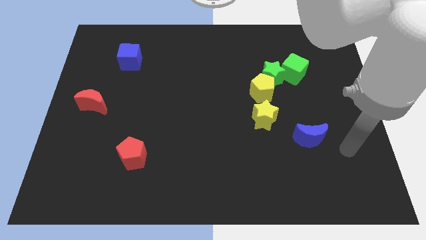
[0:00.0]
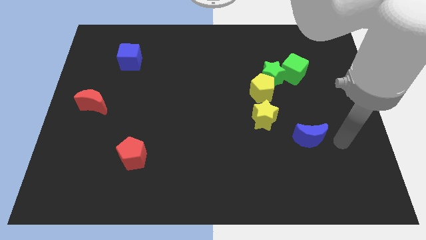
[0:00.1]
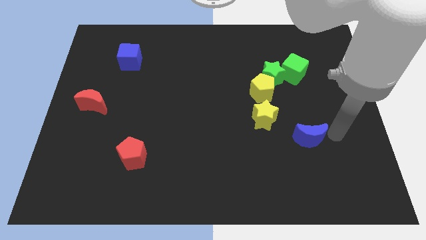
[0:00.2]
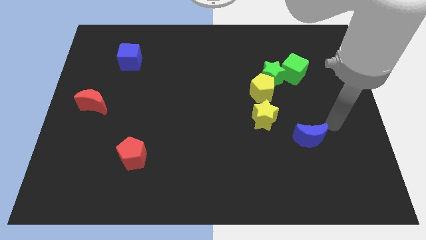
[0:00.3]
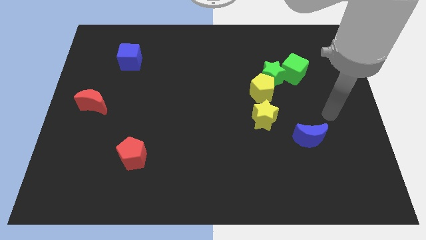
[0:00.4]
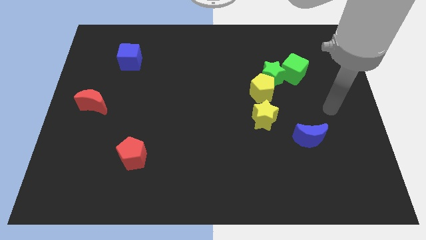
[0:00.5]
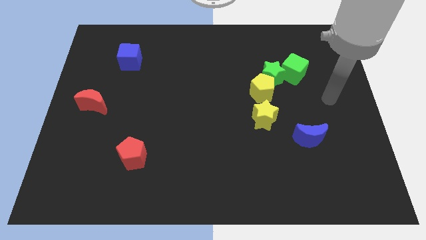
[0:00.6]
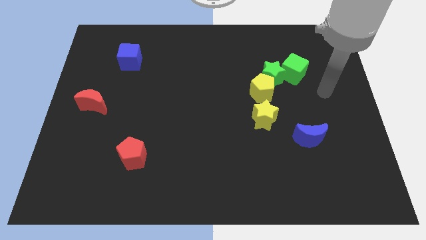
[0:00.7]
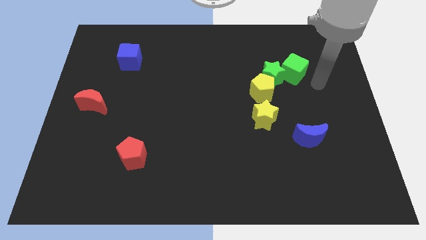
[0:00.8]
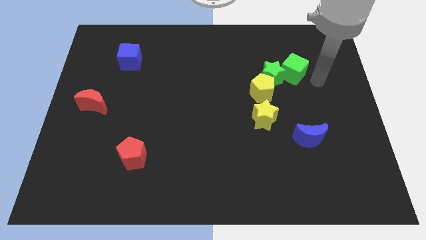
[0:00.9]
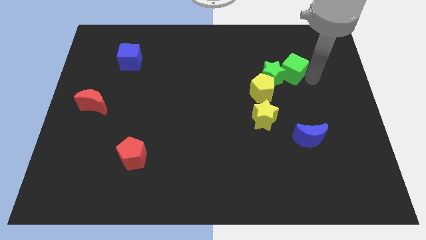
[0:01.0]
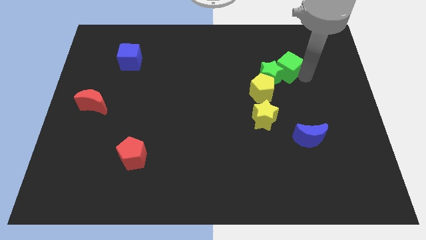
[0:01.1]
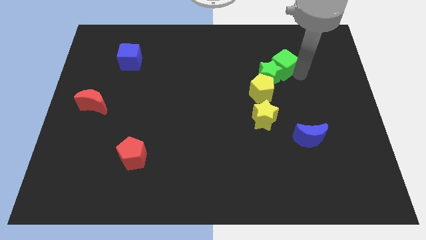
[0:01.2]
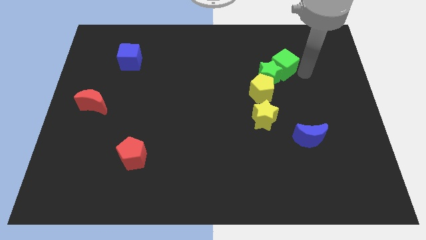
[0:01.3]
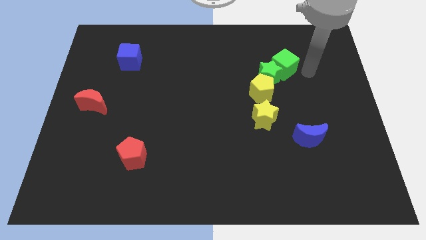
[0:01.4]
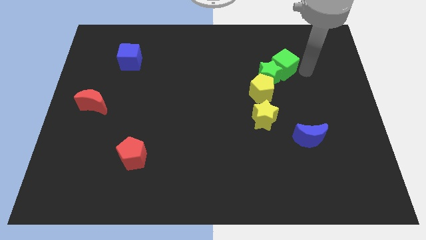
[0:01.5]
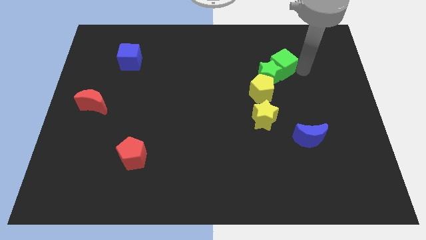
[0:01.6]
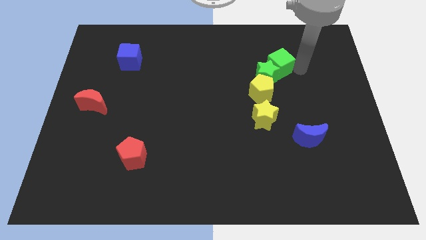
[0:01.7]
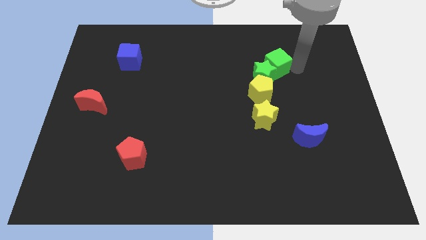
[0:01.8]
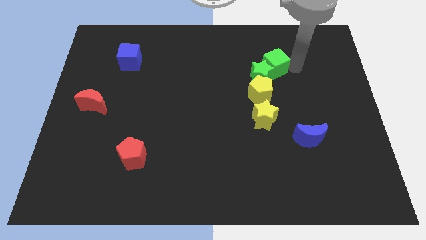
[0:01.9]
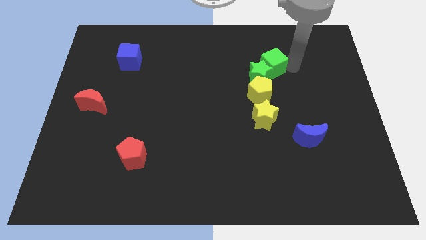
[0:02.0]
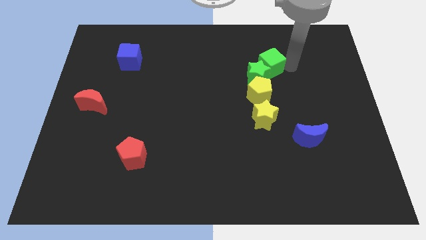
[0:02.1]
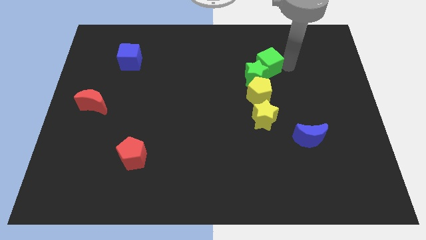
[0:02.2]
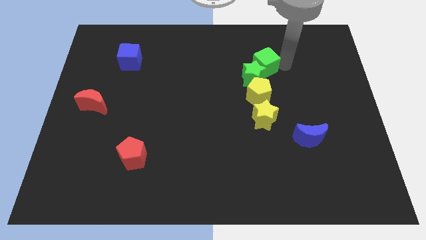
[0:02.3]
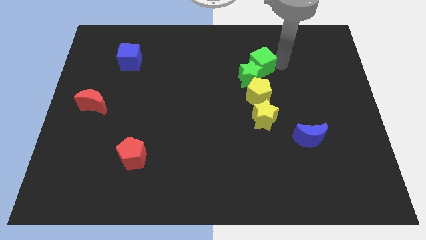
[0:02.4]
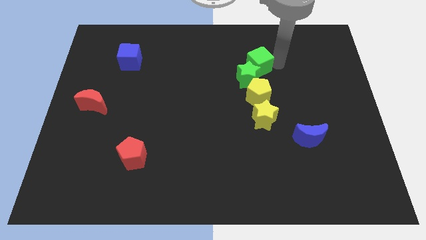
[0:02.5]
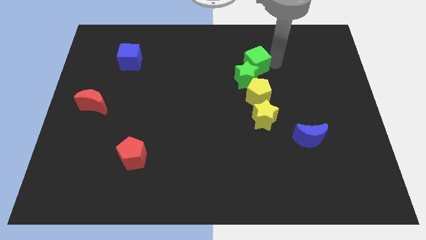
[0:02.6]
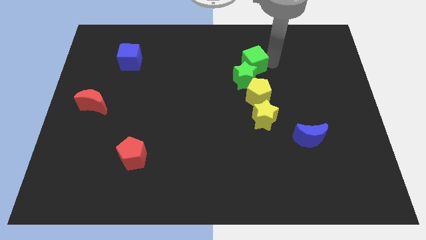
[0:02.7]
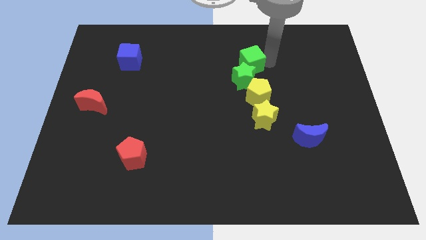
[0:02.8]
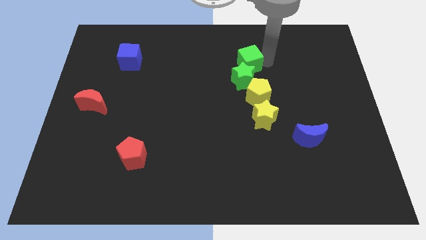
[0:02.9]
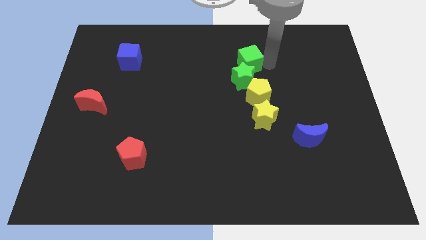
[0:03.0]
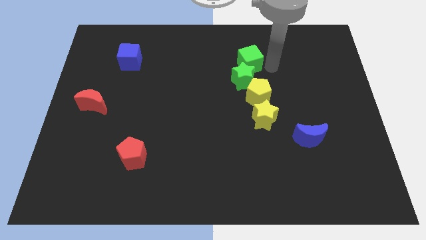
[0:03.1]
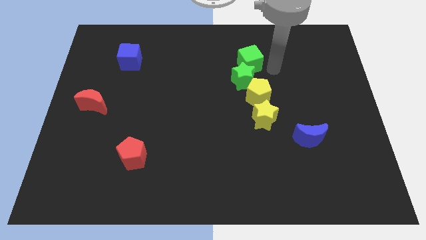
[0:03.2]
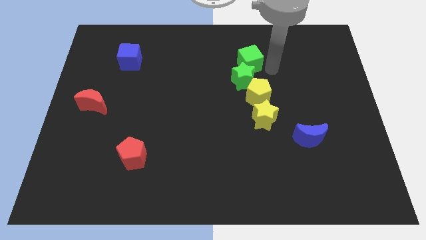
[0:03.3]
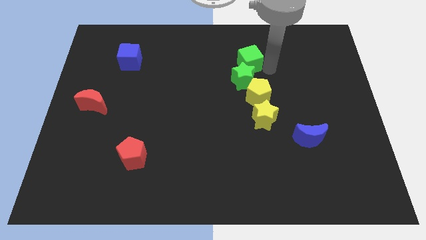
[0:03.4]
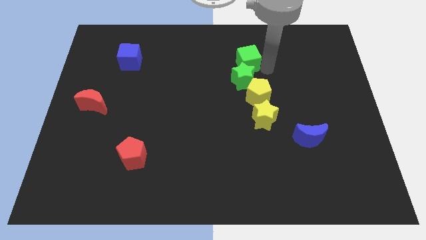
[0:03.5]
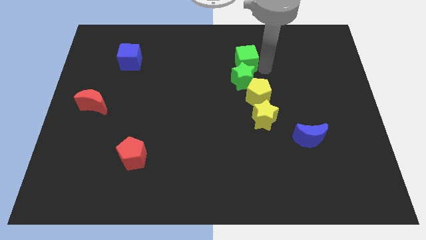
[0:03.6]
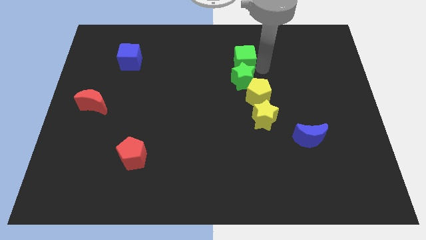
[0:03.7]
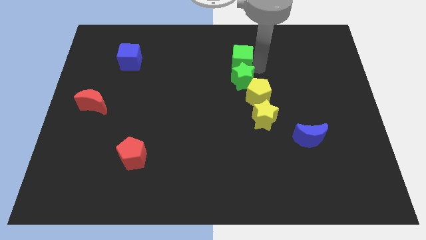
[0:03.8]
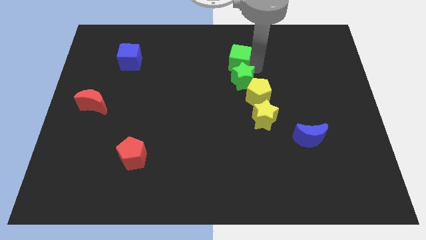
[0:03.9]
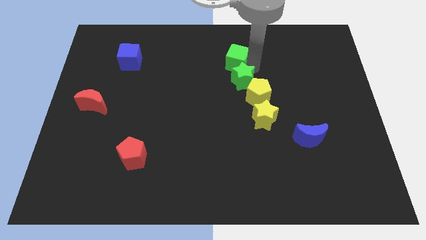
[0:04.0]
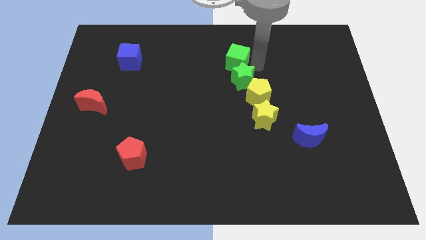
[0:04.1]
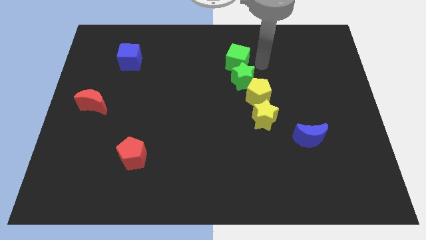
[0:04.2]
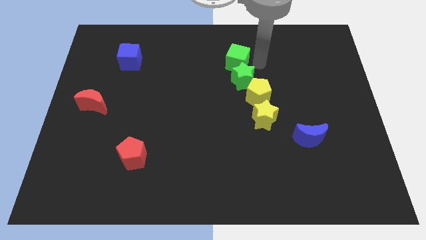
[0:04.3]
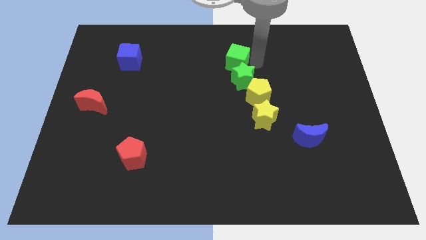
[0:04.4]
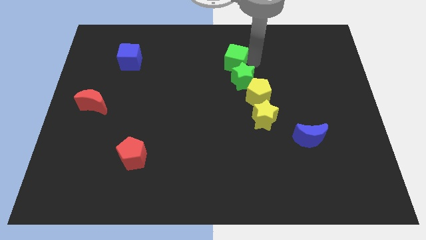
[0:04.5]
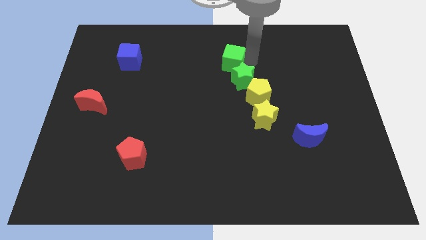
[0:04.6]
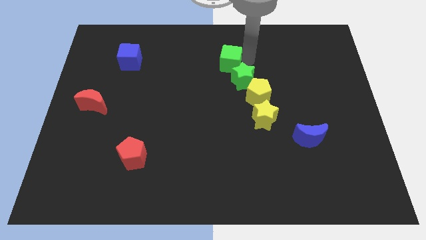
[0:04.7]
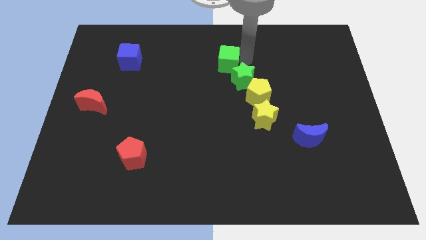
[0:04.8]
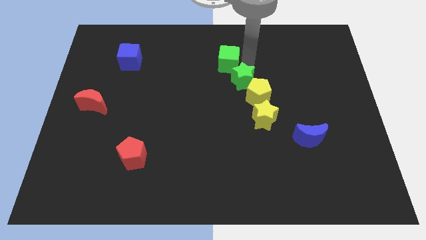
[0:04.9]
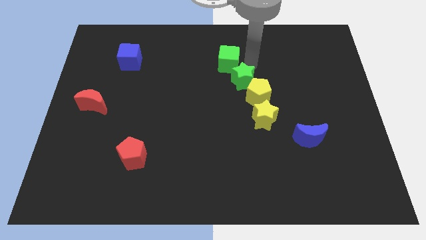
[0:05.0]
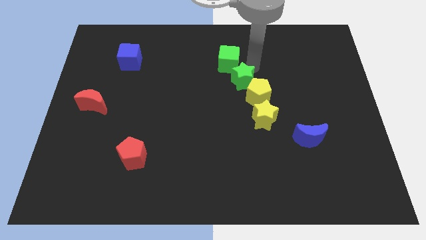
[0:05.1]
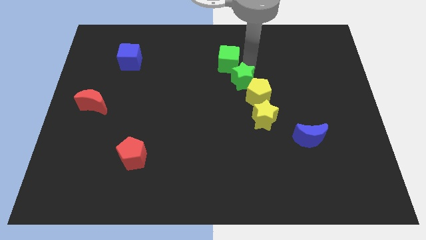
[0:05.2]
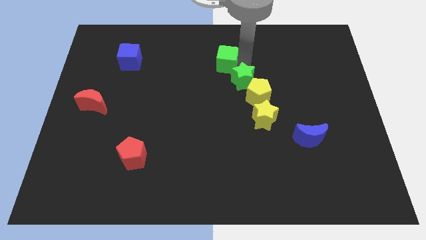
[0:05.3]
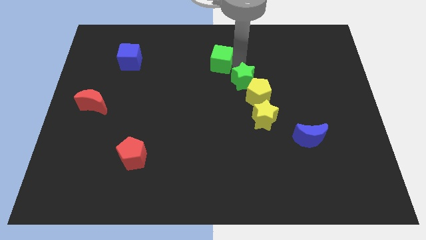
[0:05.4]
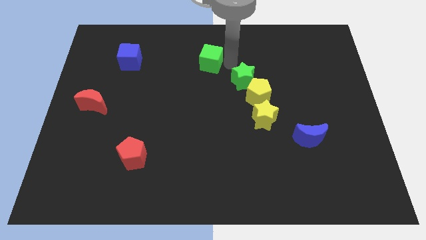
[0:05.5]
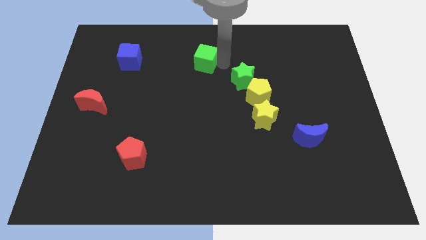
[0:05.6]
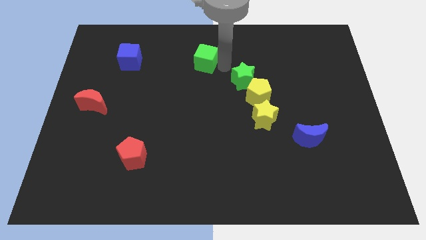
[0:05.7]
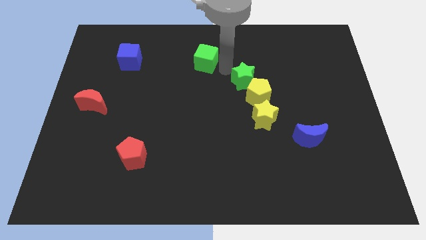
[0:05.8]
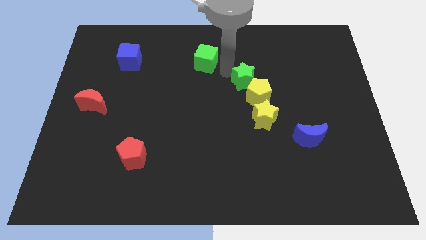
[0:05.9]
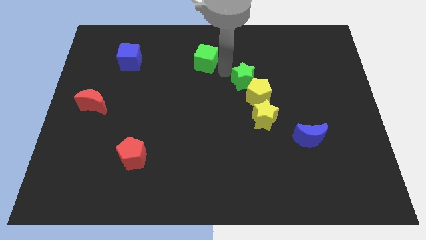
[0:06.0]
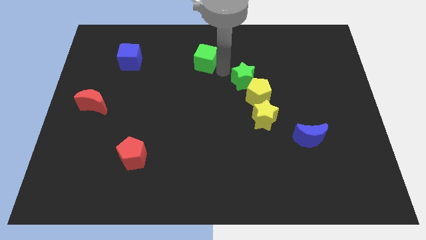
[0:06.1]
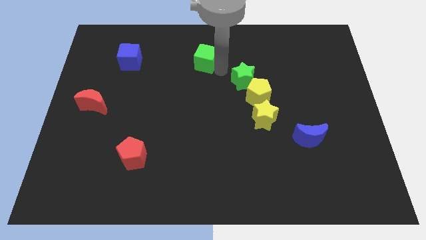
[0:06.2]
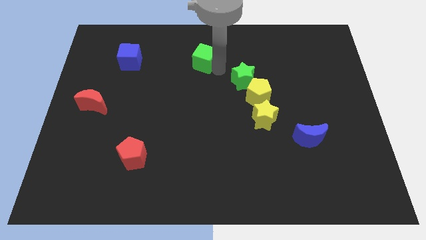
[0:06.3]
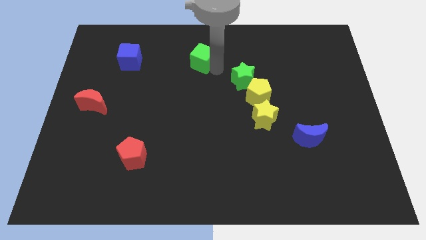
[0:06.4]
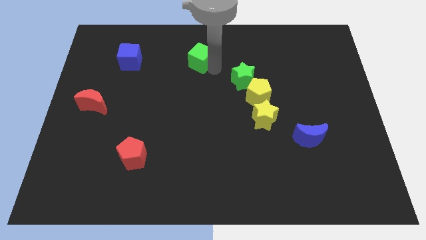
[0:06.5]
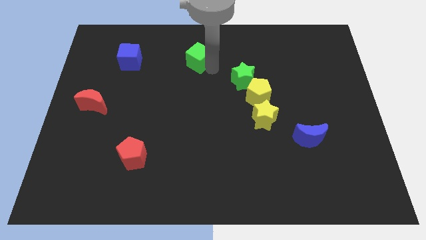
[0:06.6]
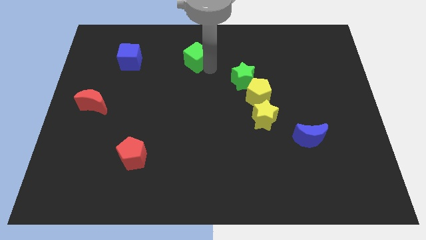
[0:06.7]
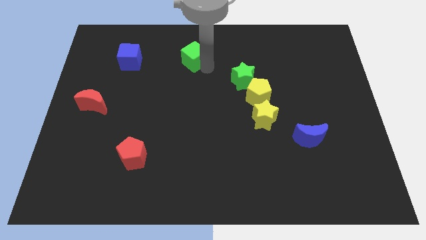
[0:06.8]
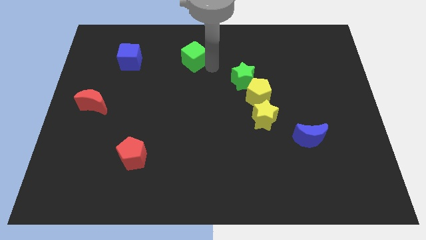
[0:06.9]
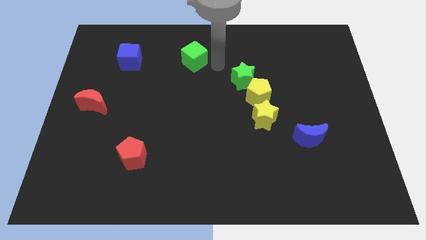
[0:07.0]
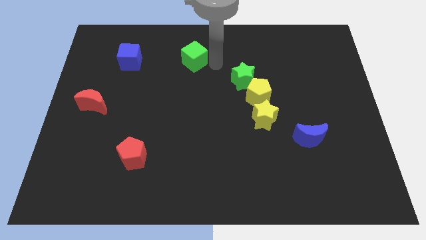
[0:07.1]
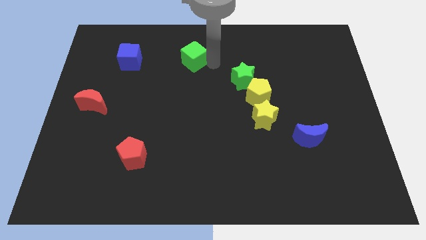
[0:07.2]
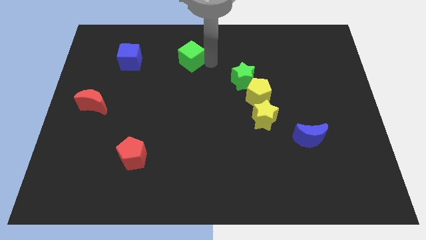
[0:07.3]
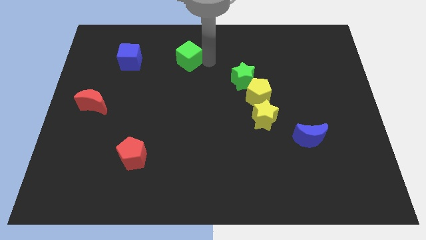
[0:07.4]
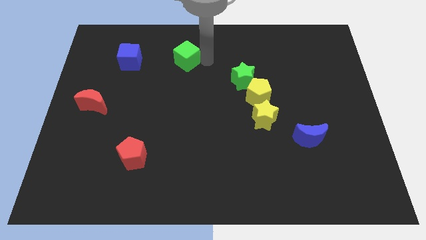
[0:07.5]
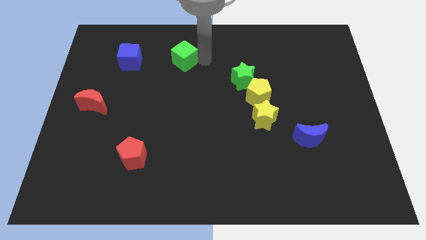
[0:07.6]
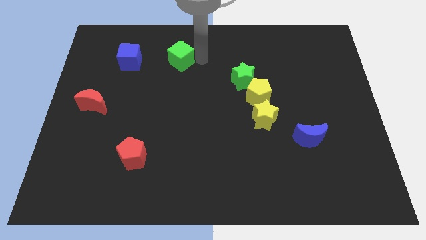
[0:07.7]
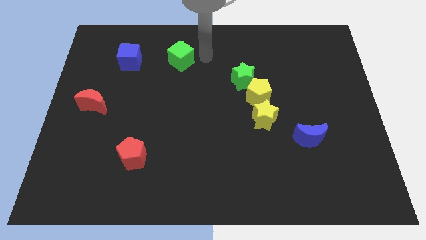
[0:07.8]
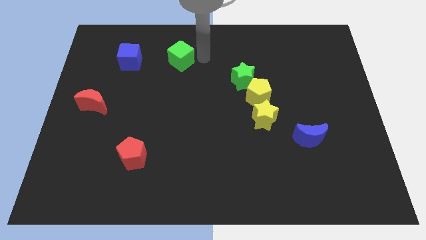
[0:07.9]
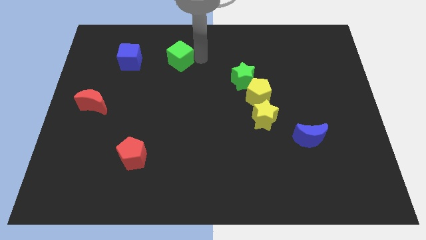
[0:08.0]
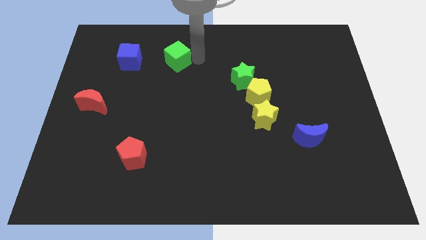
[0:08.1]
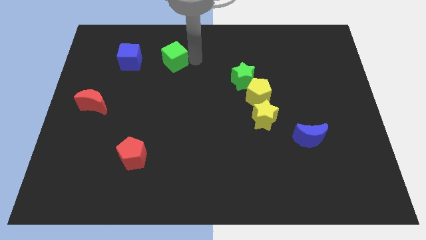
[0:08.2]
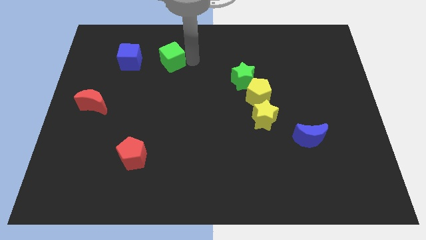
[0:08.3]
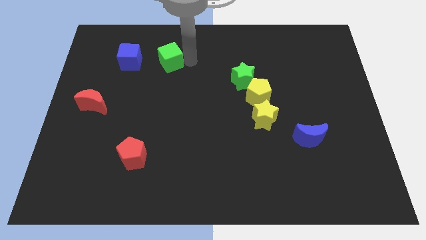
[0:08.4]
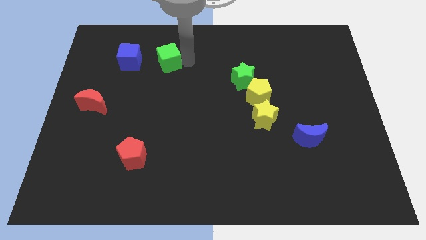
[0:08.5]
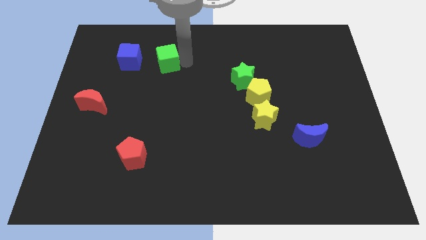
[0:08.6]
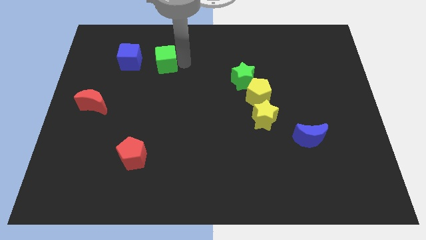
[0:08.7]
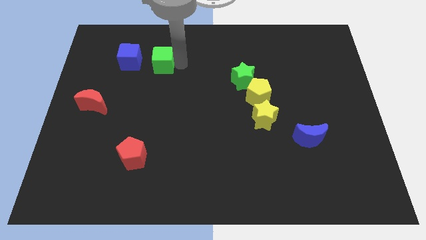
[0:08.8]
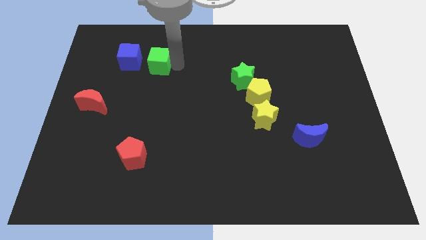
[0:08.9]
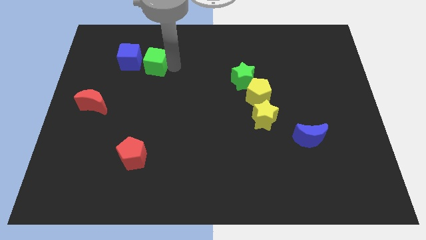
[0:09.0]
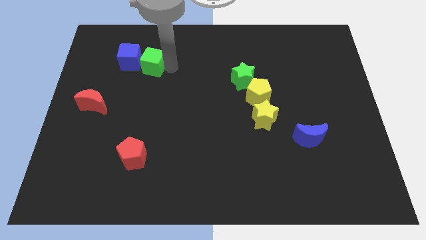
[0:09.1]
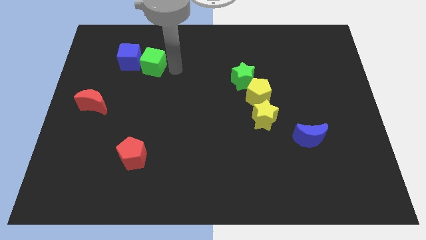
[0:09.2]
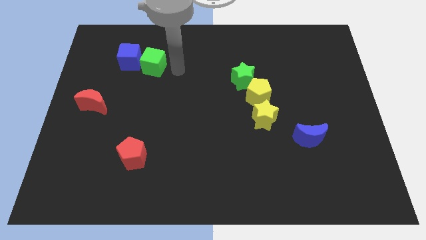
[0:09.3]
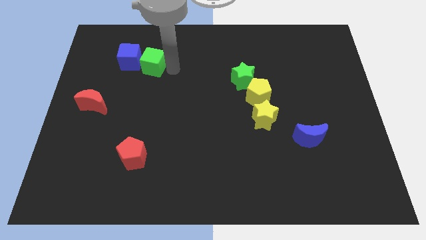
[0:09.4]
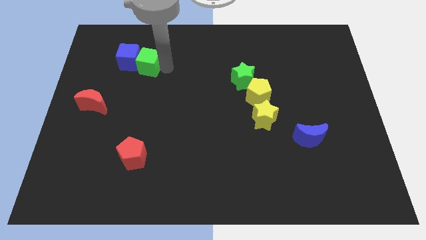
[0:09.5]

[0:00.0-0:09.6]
put the green cube next to the blue cube
